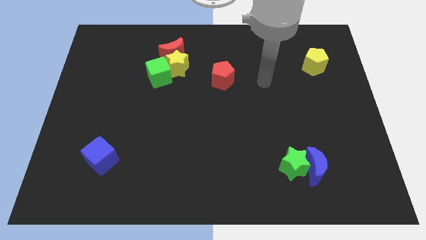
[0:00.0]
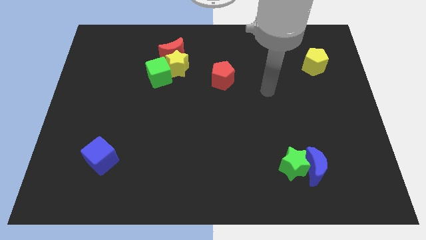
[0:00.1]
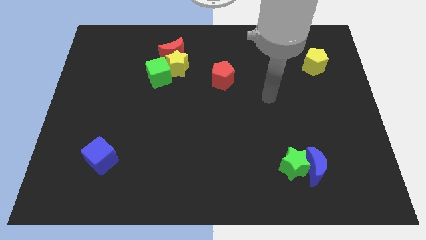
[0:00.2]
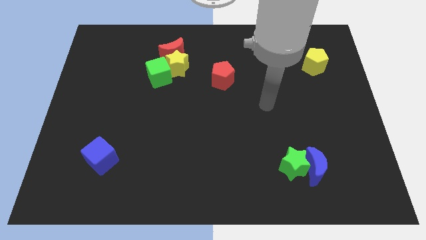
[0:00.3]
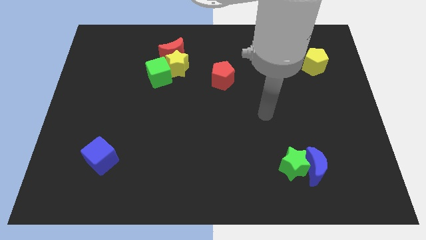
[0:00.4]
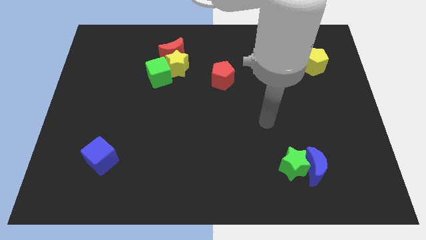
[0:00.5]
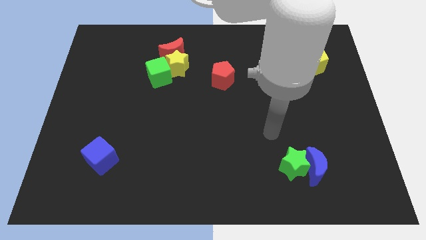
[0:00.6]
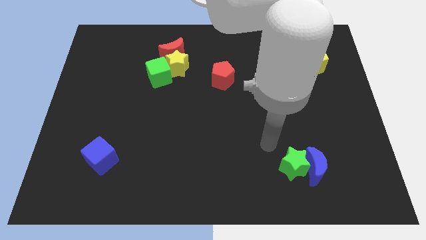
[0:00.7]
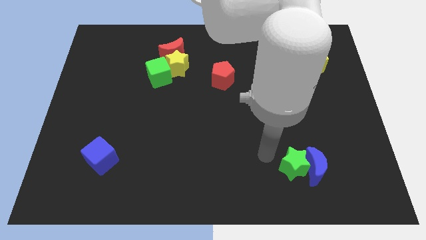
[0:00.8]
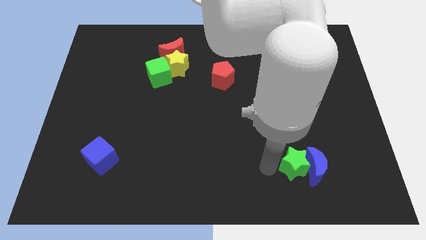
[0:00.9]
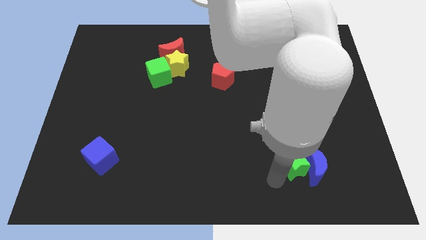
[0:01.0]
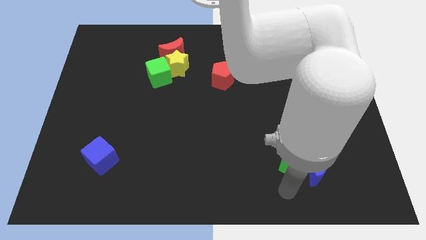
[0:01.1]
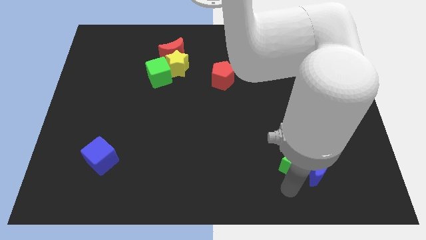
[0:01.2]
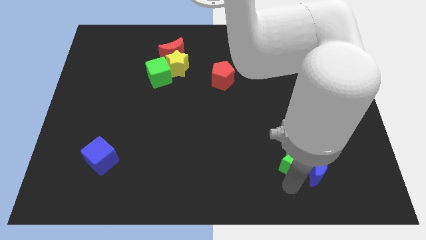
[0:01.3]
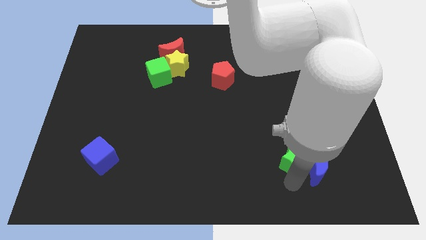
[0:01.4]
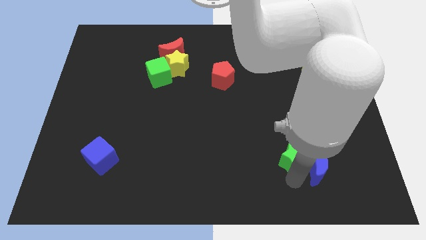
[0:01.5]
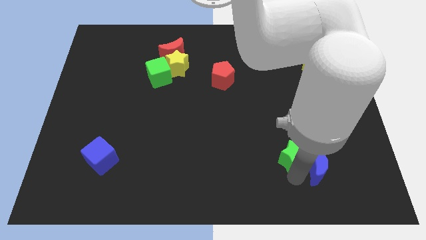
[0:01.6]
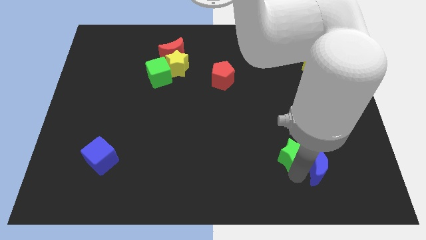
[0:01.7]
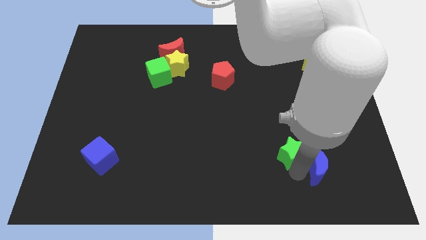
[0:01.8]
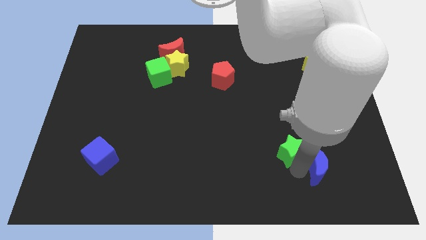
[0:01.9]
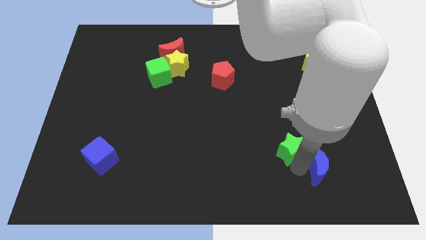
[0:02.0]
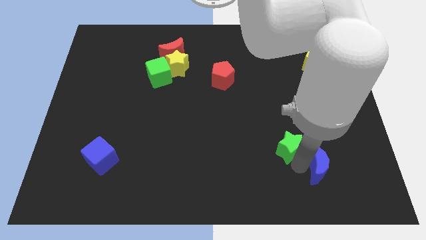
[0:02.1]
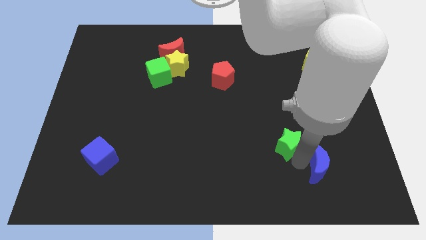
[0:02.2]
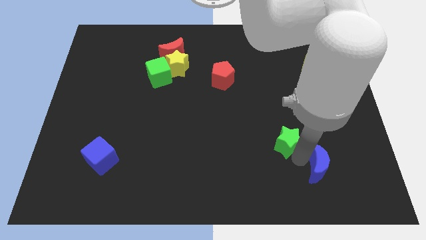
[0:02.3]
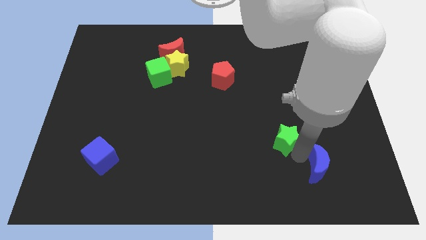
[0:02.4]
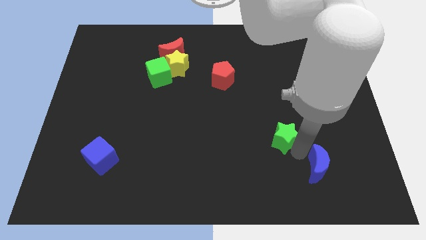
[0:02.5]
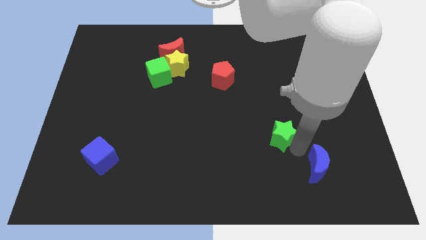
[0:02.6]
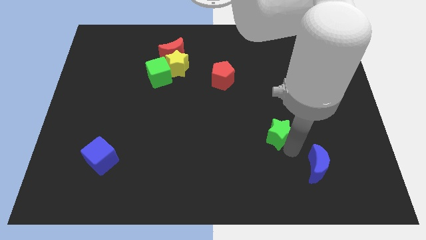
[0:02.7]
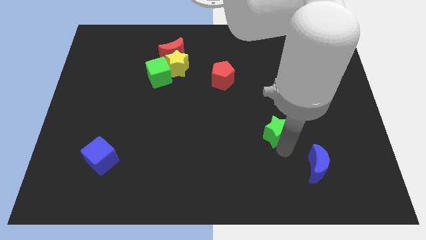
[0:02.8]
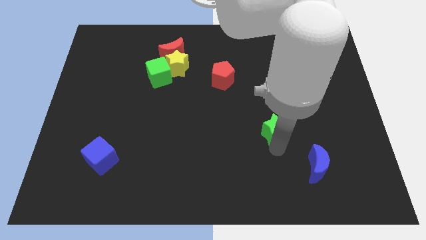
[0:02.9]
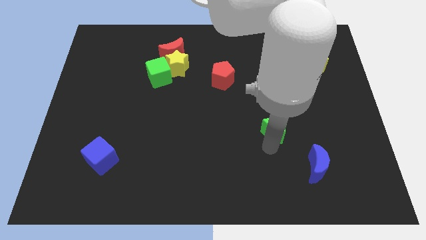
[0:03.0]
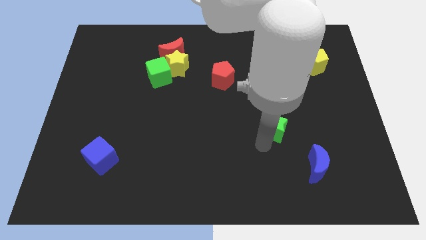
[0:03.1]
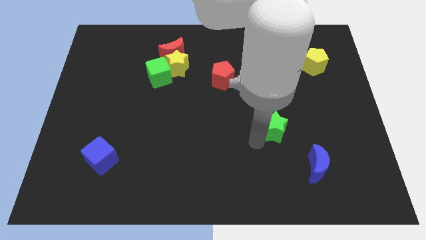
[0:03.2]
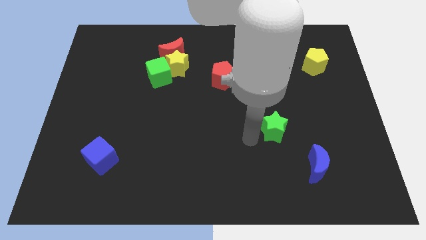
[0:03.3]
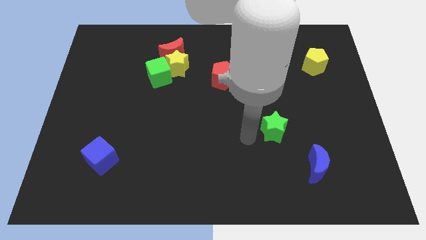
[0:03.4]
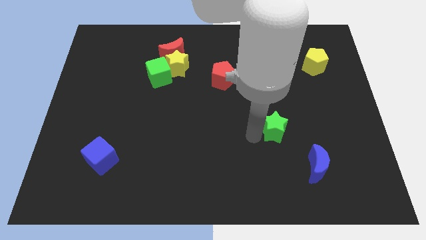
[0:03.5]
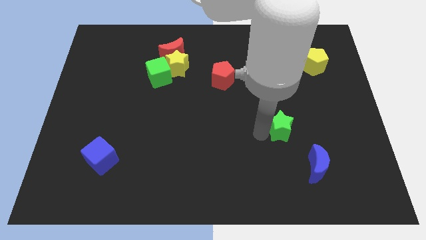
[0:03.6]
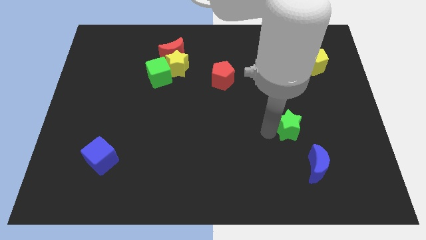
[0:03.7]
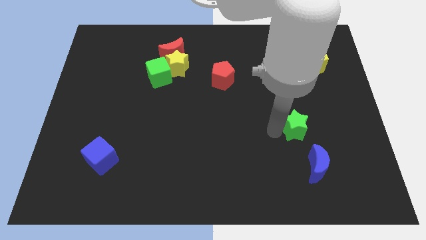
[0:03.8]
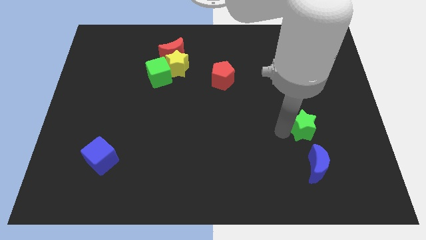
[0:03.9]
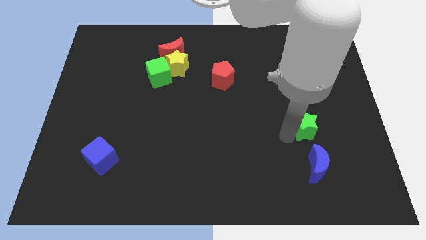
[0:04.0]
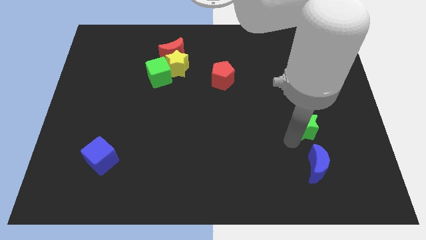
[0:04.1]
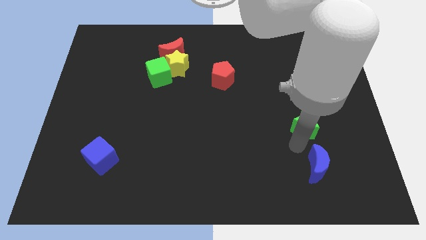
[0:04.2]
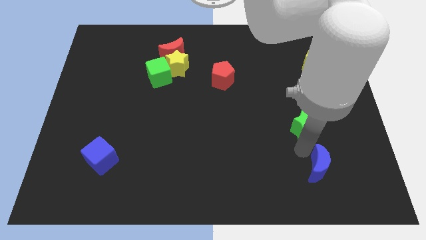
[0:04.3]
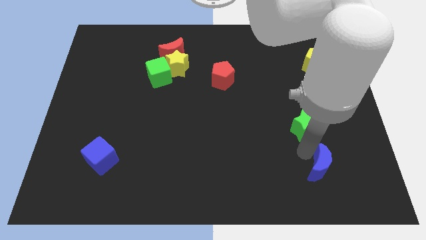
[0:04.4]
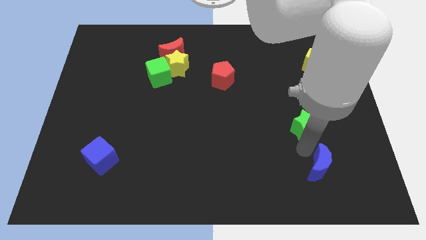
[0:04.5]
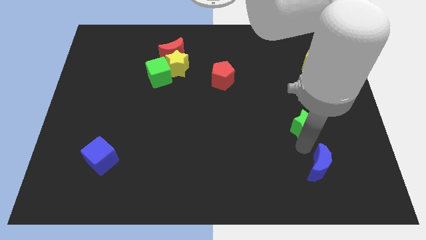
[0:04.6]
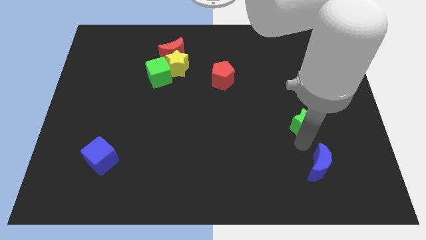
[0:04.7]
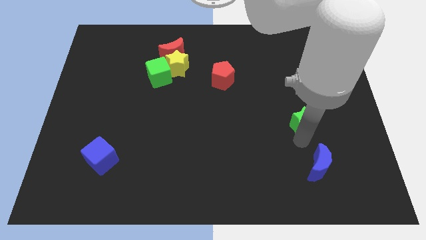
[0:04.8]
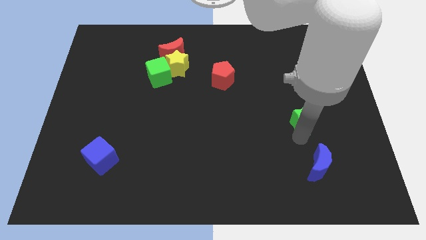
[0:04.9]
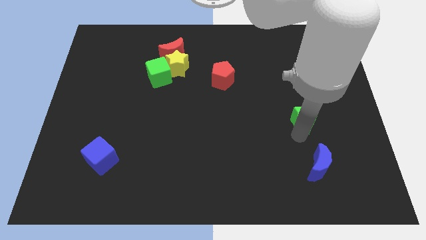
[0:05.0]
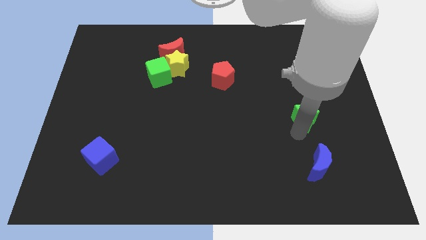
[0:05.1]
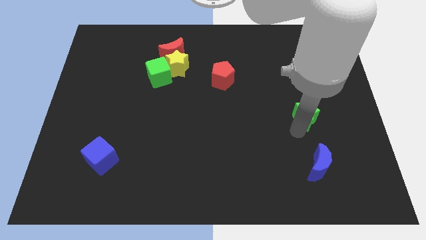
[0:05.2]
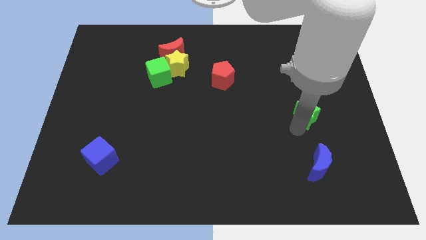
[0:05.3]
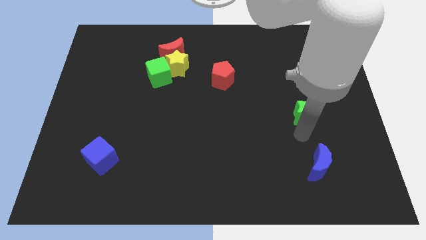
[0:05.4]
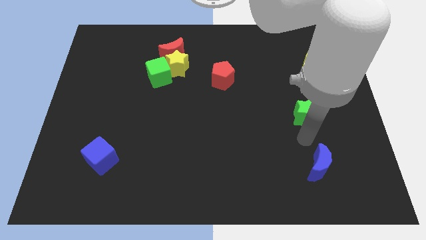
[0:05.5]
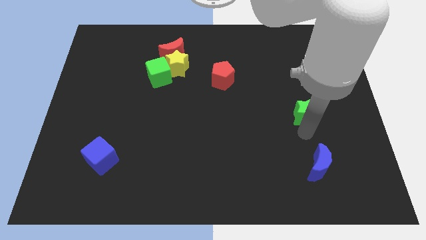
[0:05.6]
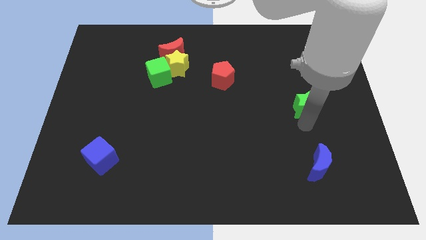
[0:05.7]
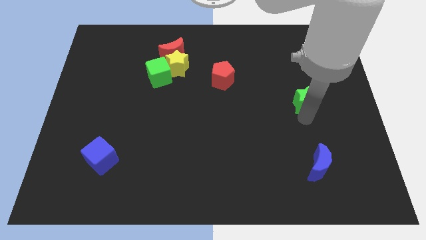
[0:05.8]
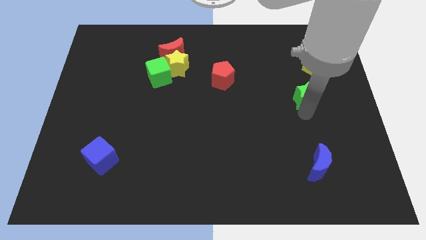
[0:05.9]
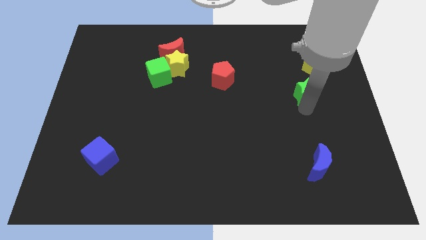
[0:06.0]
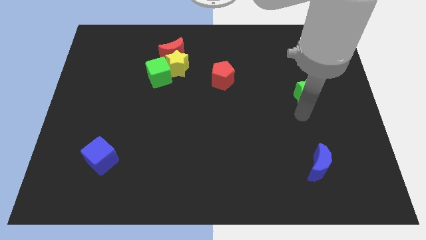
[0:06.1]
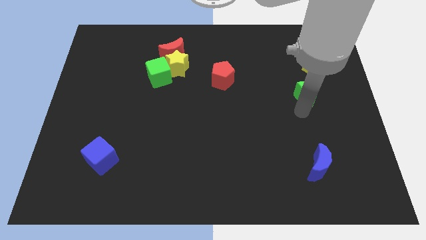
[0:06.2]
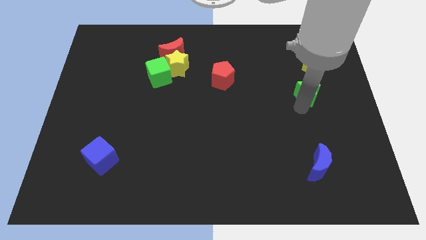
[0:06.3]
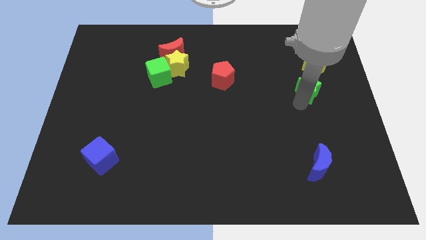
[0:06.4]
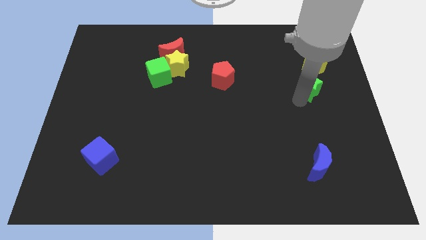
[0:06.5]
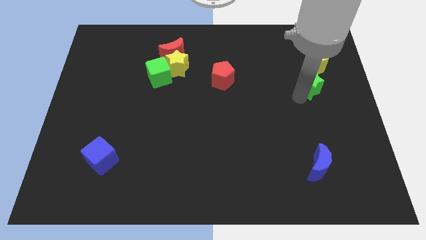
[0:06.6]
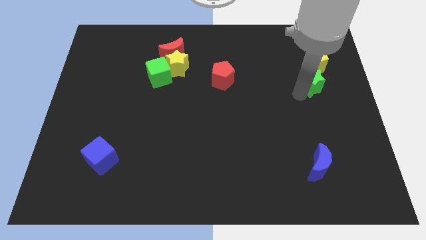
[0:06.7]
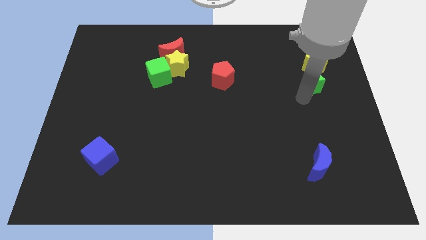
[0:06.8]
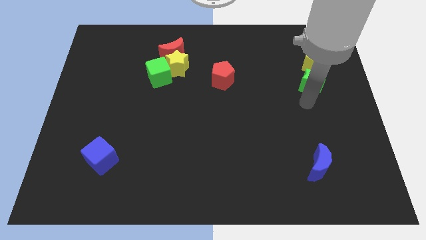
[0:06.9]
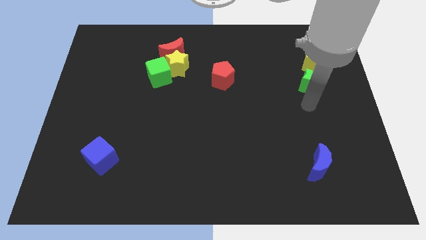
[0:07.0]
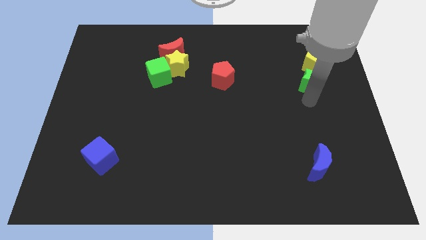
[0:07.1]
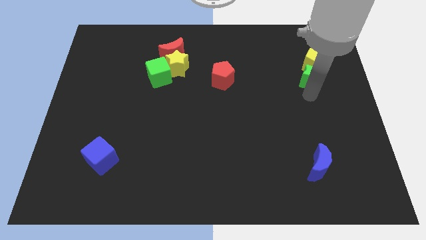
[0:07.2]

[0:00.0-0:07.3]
put the green star next to the yellow pentagon
